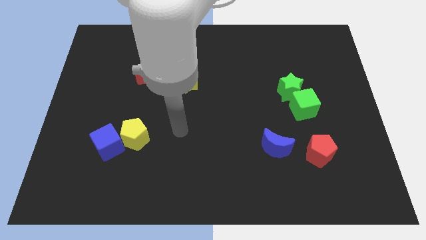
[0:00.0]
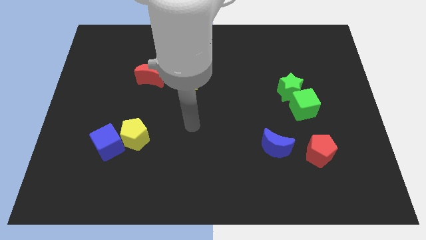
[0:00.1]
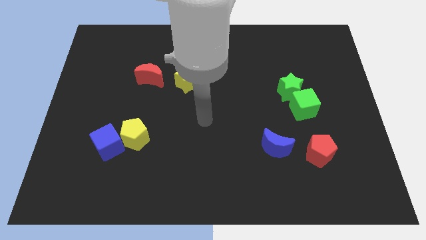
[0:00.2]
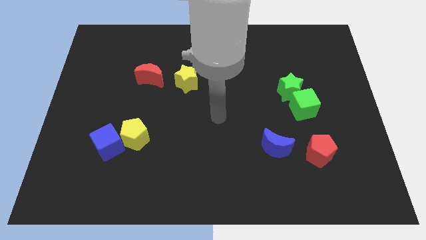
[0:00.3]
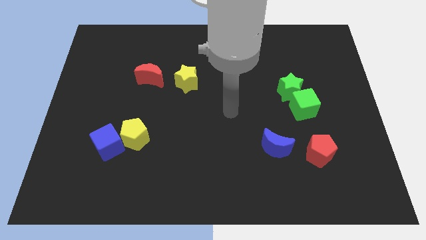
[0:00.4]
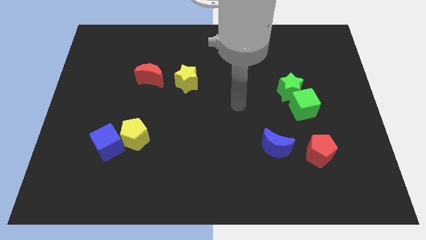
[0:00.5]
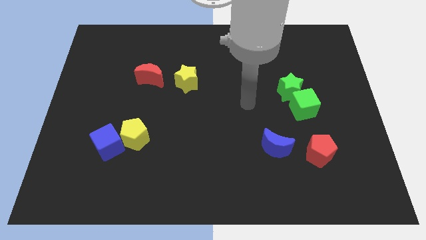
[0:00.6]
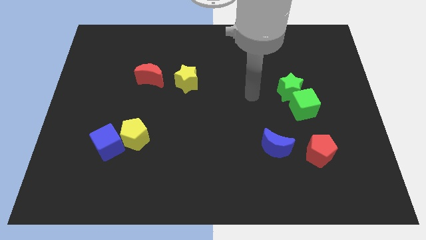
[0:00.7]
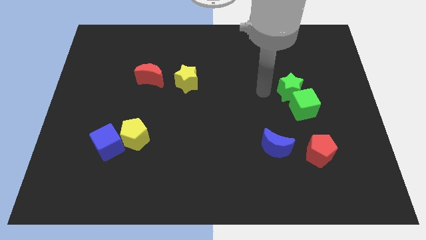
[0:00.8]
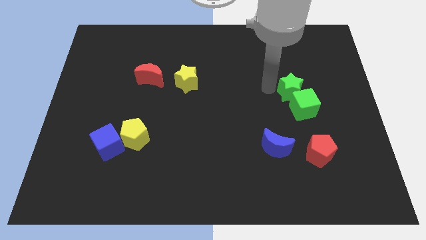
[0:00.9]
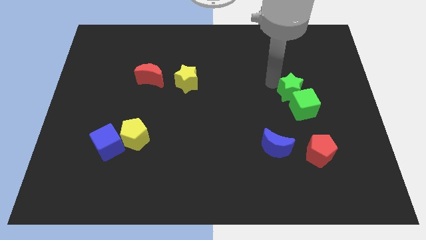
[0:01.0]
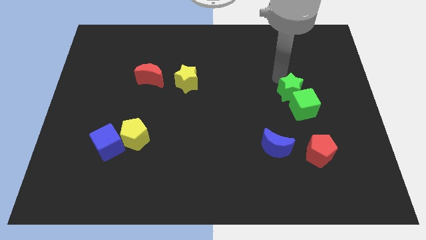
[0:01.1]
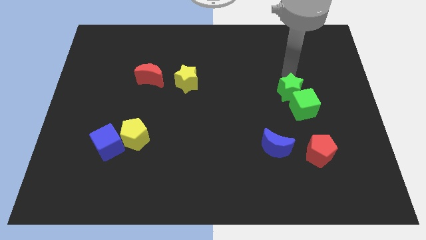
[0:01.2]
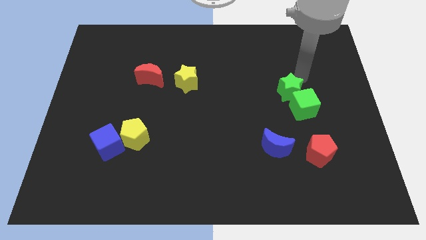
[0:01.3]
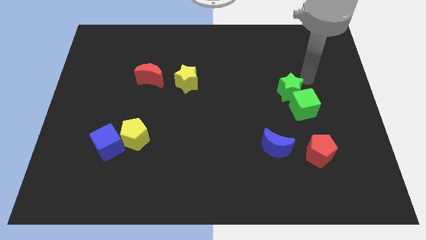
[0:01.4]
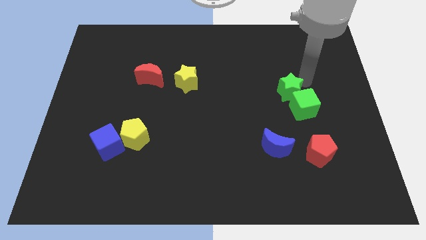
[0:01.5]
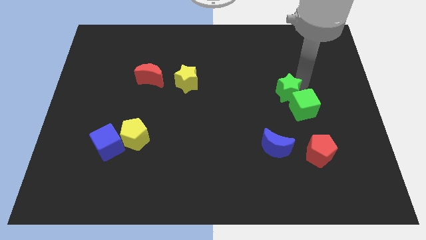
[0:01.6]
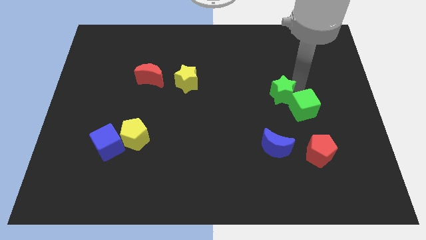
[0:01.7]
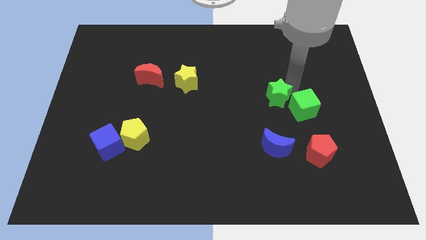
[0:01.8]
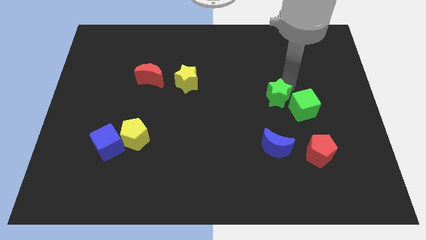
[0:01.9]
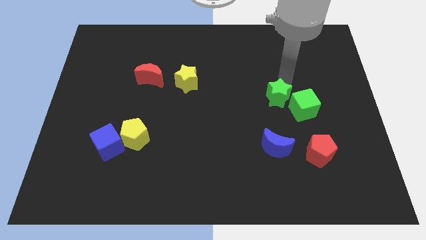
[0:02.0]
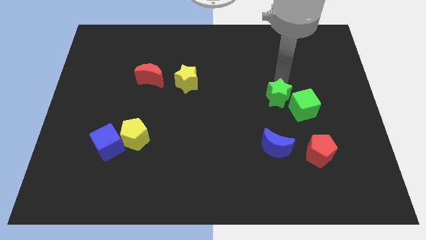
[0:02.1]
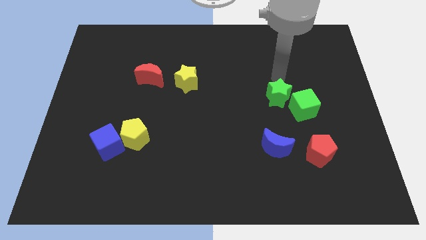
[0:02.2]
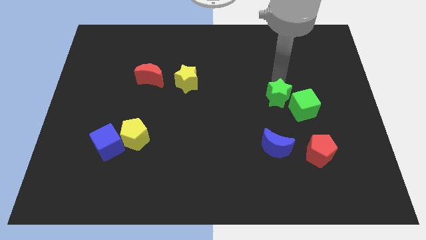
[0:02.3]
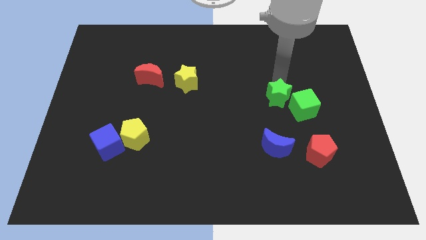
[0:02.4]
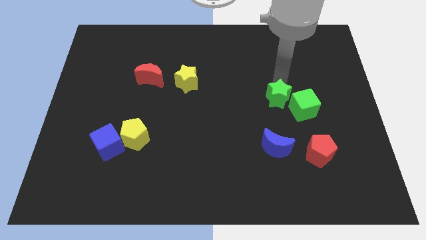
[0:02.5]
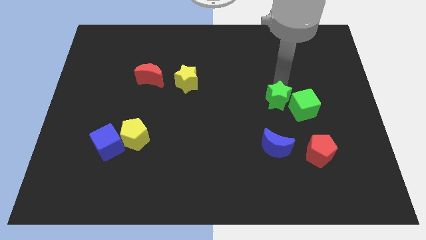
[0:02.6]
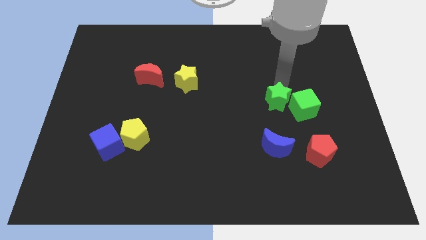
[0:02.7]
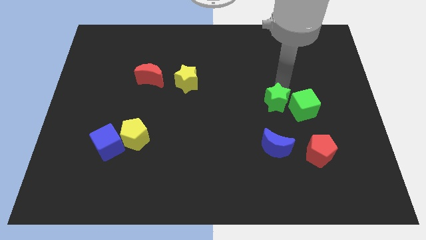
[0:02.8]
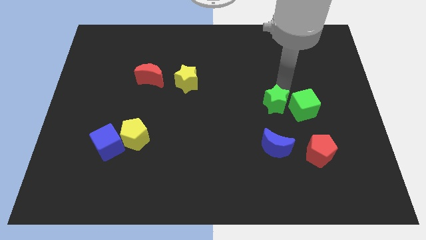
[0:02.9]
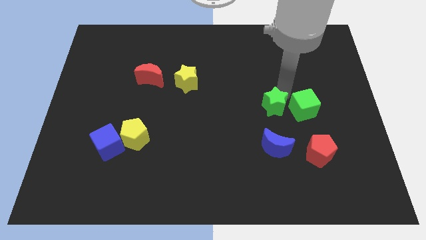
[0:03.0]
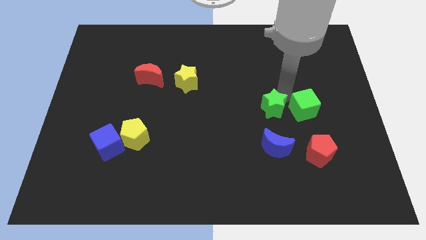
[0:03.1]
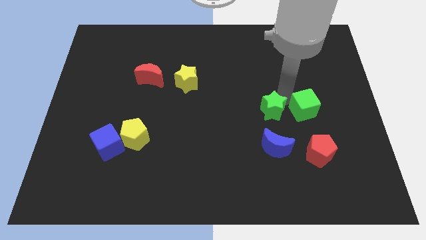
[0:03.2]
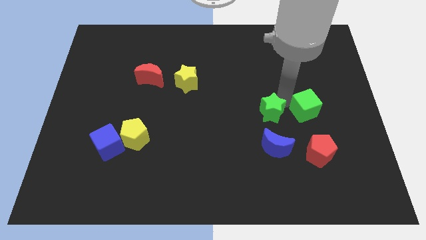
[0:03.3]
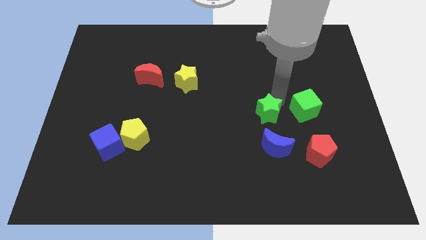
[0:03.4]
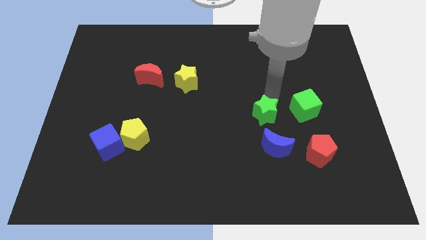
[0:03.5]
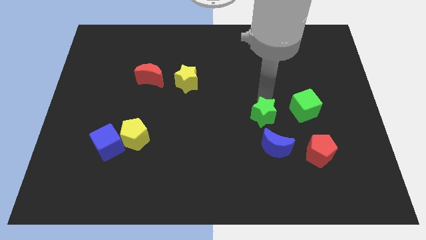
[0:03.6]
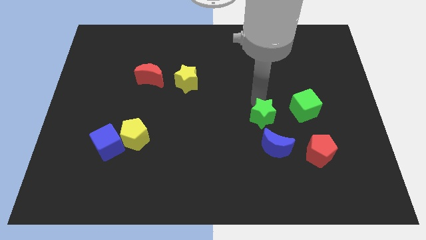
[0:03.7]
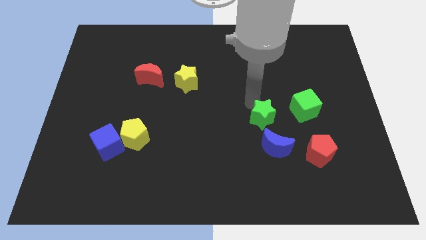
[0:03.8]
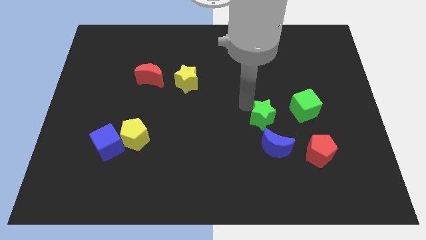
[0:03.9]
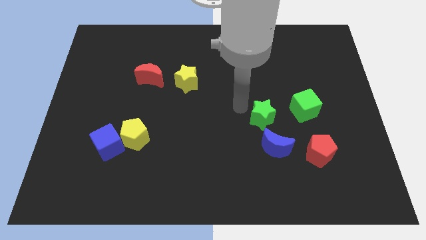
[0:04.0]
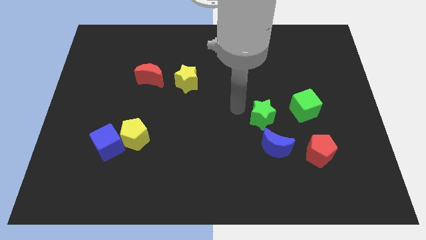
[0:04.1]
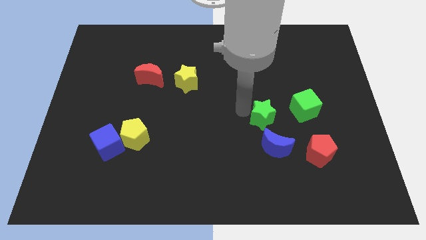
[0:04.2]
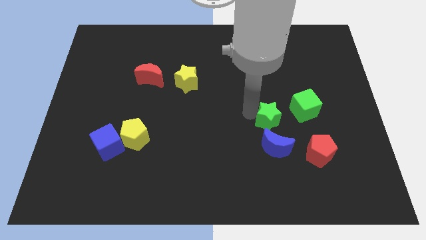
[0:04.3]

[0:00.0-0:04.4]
slightly slide the green star down

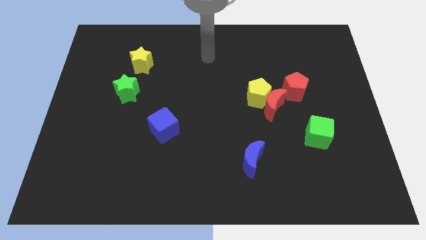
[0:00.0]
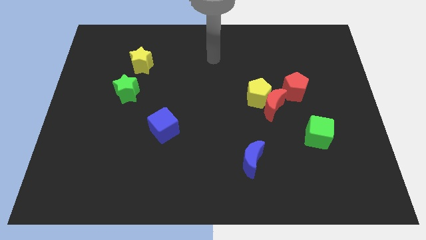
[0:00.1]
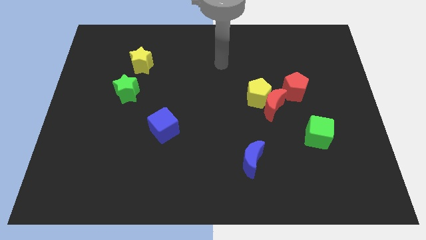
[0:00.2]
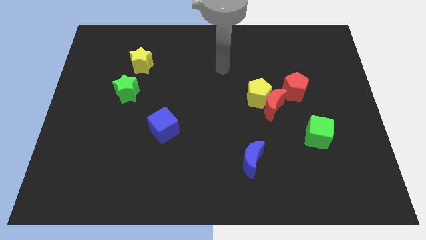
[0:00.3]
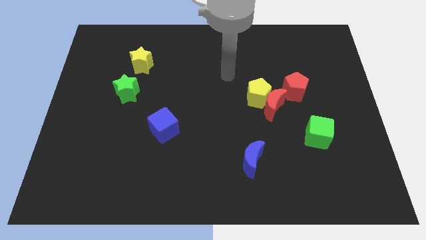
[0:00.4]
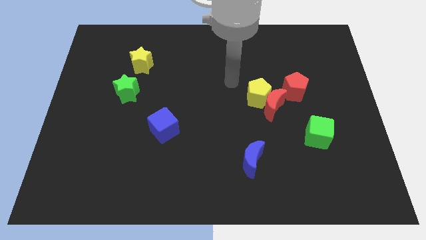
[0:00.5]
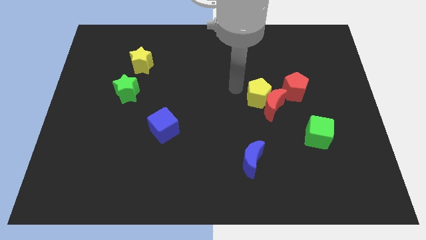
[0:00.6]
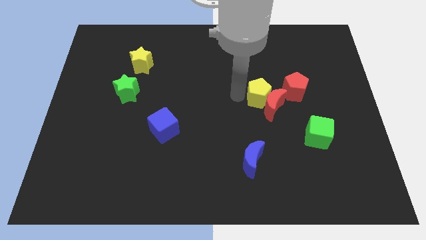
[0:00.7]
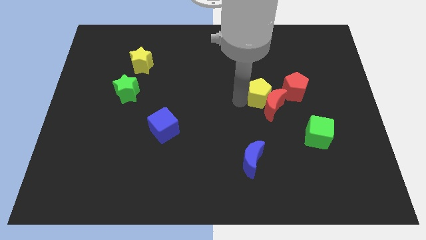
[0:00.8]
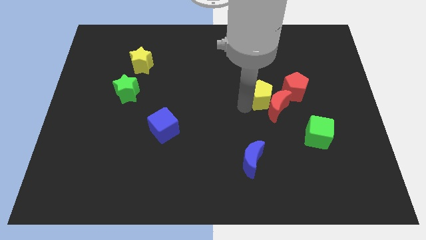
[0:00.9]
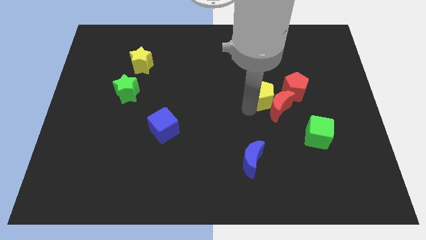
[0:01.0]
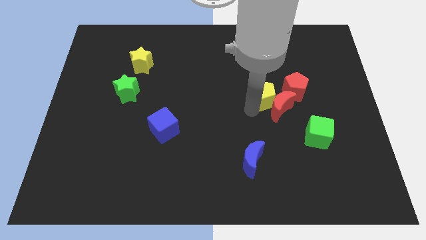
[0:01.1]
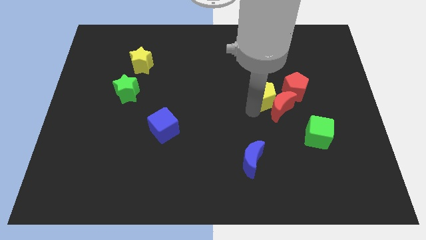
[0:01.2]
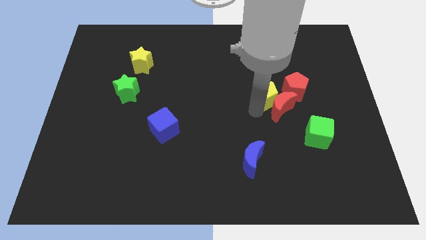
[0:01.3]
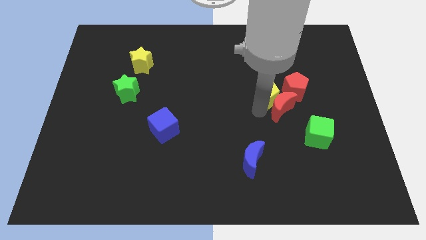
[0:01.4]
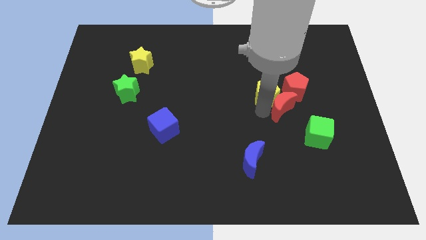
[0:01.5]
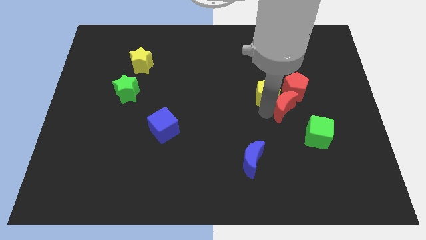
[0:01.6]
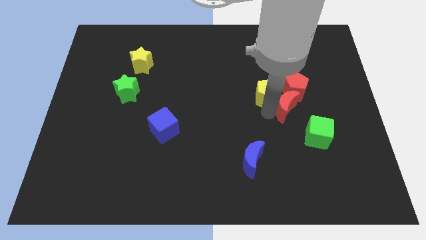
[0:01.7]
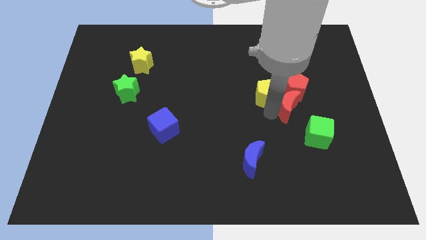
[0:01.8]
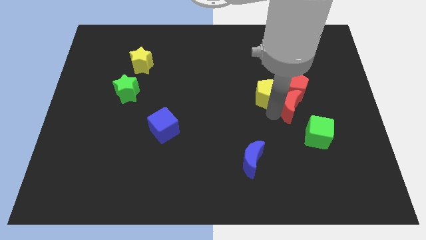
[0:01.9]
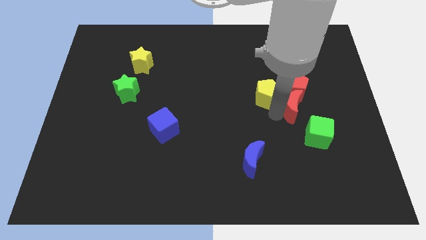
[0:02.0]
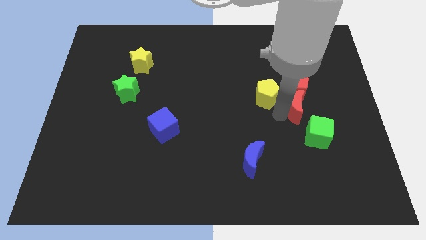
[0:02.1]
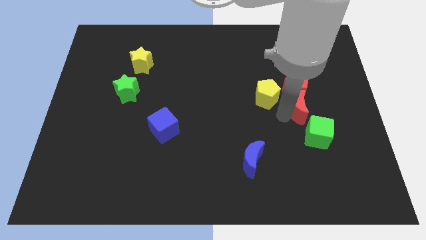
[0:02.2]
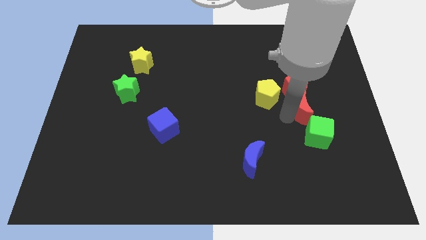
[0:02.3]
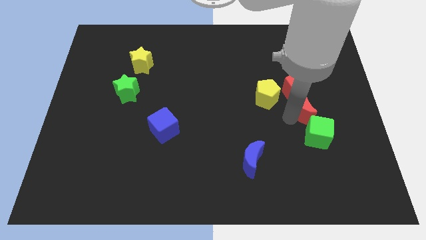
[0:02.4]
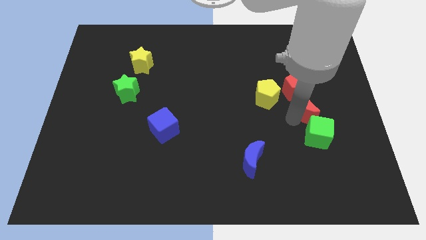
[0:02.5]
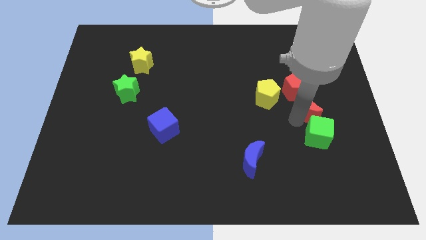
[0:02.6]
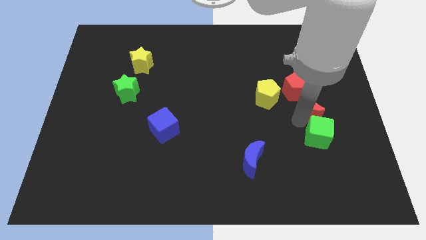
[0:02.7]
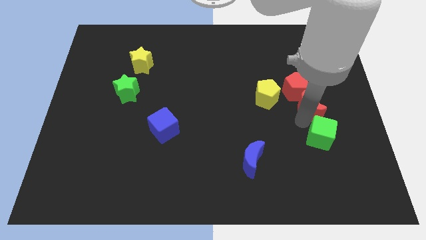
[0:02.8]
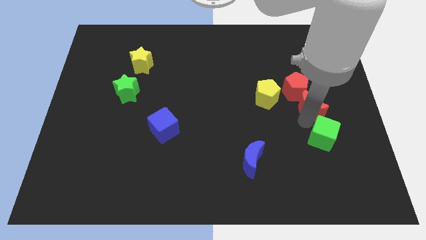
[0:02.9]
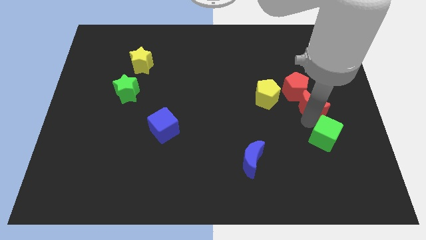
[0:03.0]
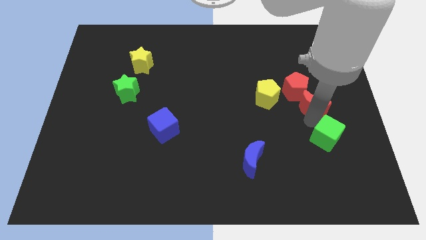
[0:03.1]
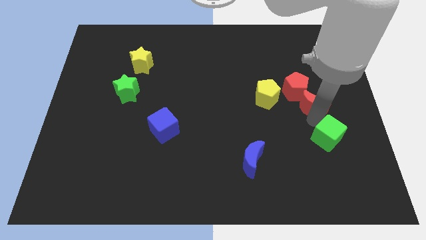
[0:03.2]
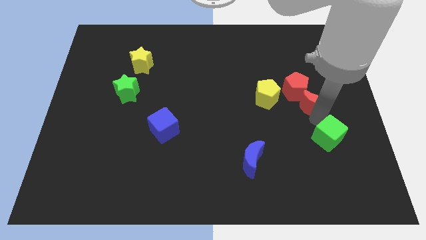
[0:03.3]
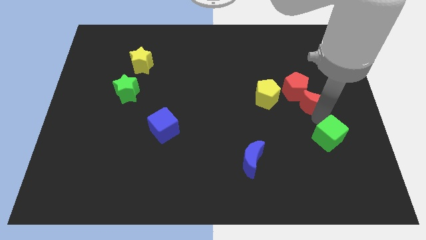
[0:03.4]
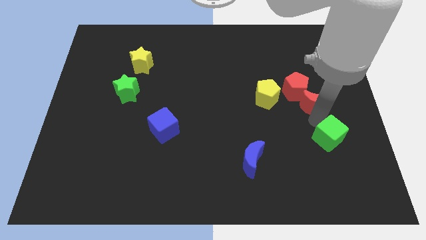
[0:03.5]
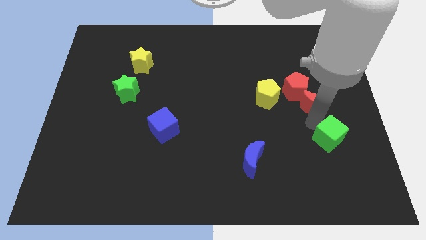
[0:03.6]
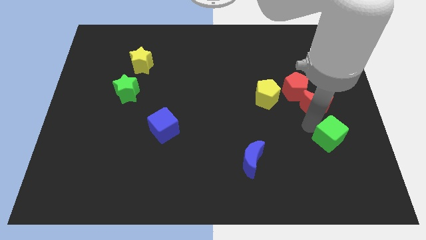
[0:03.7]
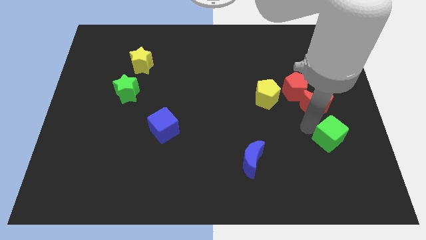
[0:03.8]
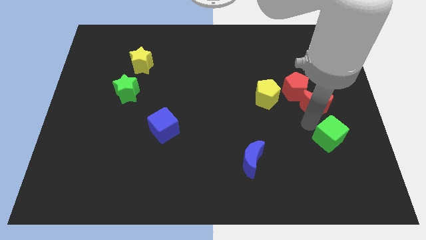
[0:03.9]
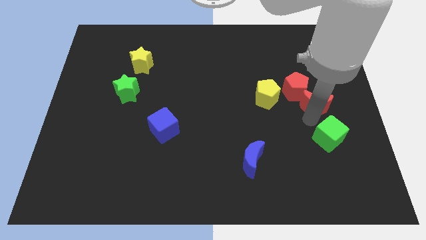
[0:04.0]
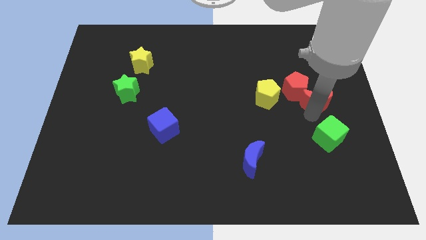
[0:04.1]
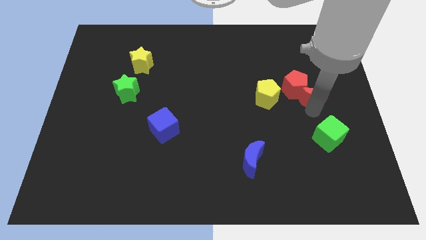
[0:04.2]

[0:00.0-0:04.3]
slide the red moon diagonally upwards and to the right a little bit
